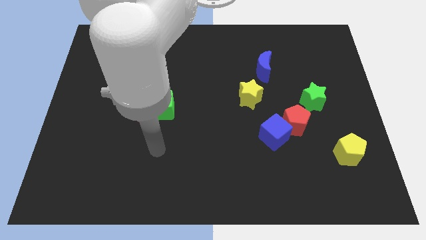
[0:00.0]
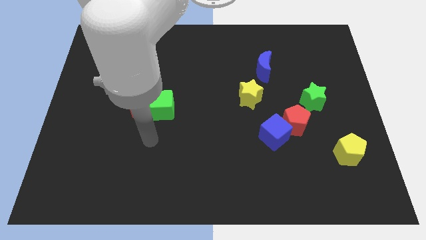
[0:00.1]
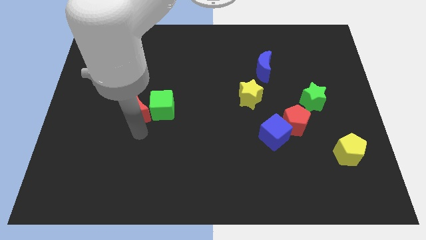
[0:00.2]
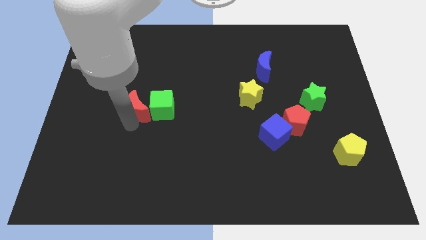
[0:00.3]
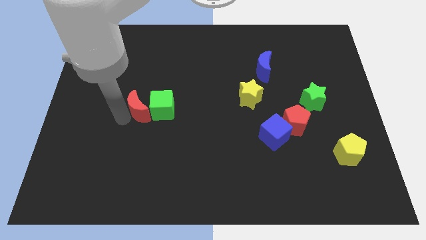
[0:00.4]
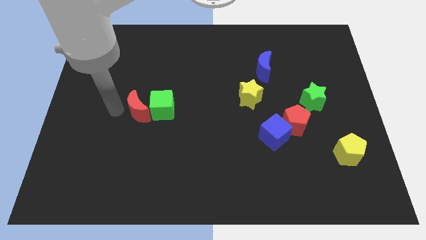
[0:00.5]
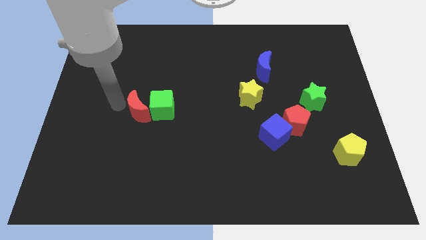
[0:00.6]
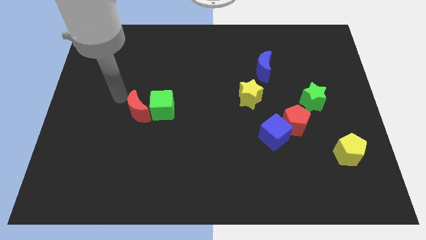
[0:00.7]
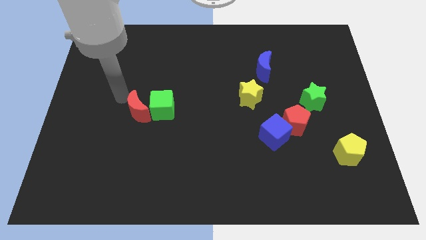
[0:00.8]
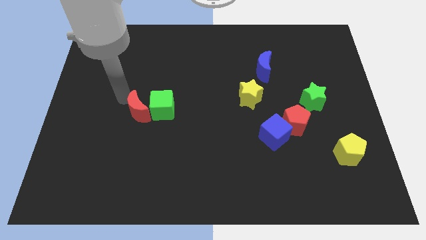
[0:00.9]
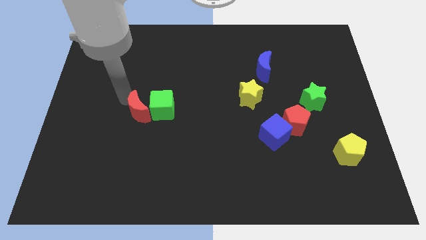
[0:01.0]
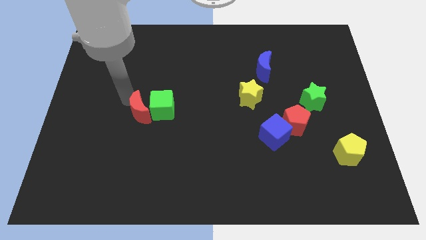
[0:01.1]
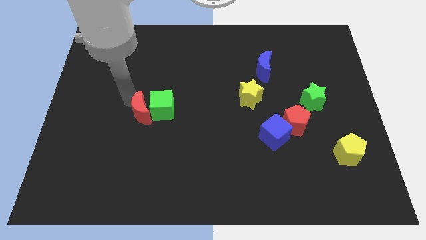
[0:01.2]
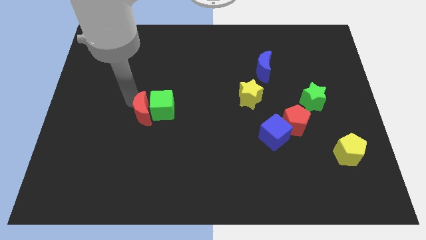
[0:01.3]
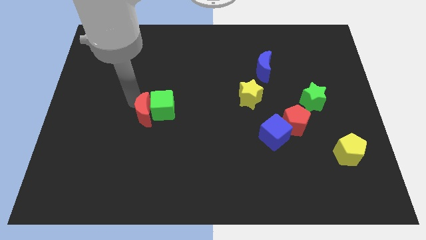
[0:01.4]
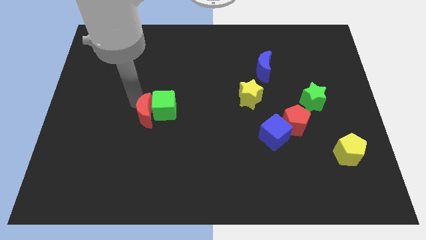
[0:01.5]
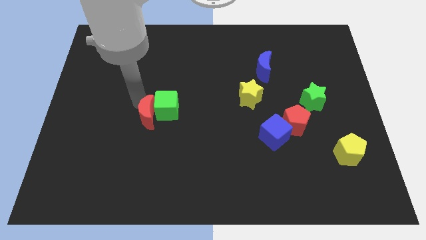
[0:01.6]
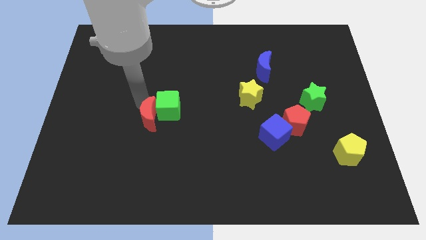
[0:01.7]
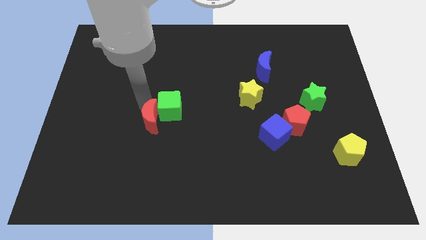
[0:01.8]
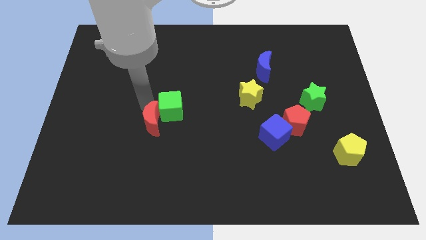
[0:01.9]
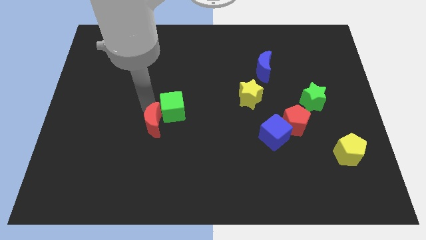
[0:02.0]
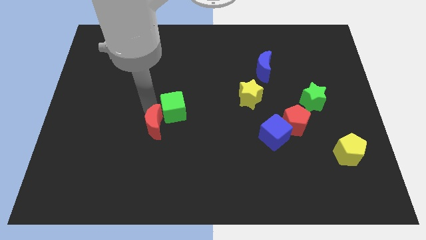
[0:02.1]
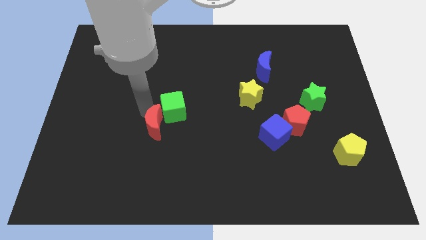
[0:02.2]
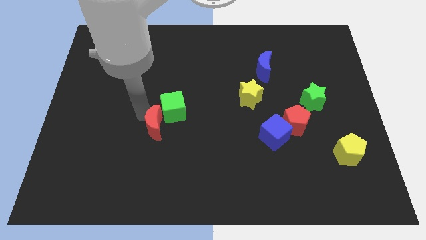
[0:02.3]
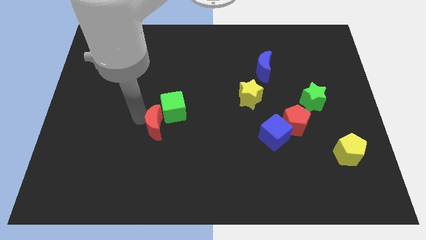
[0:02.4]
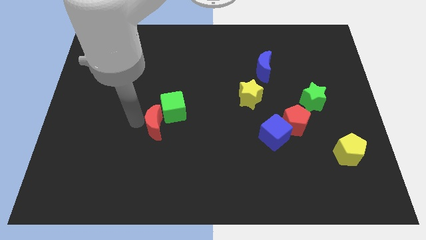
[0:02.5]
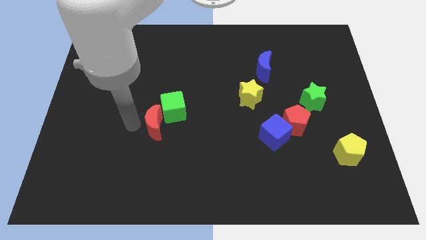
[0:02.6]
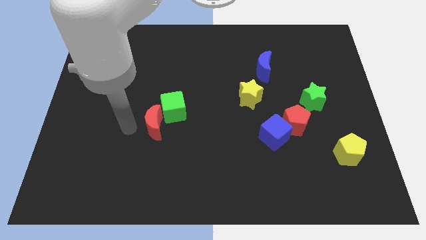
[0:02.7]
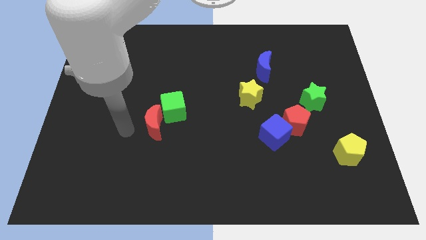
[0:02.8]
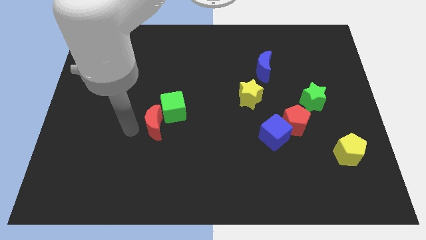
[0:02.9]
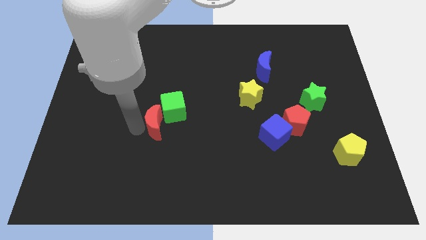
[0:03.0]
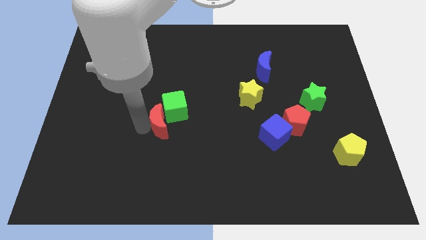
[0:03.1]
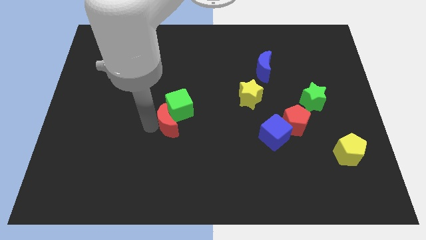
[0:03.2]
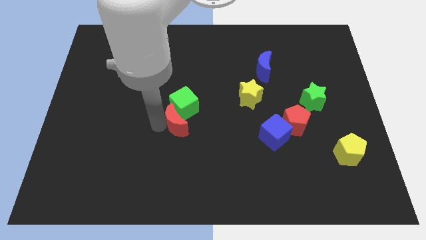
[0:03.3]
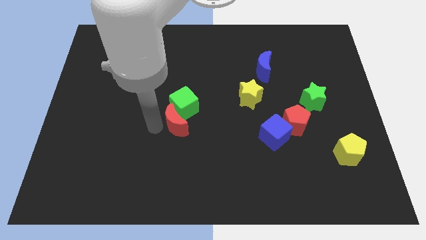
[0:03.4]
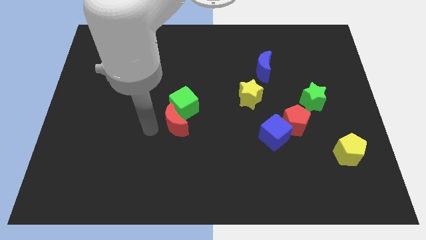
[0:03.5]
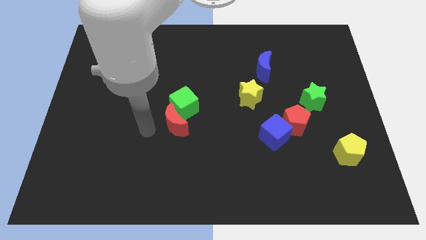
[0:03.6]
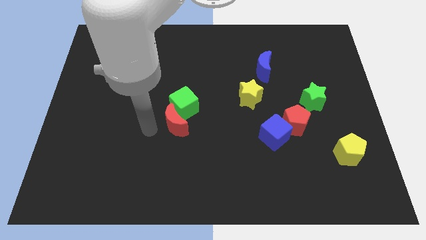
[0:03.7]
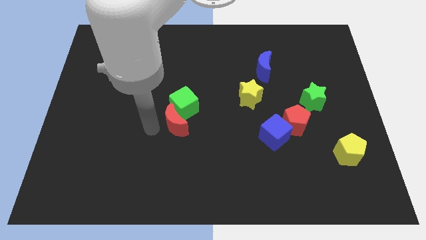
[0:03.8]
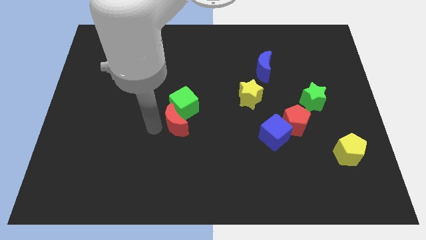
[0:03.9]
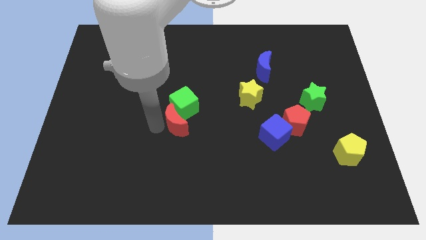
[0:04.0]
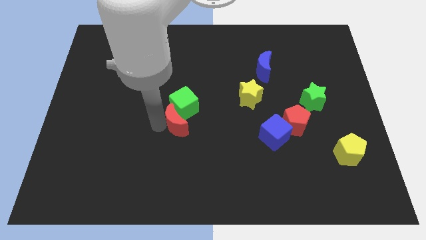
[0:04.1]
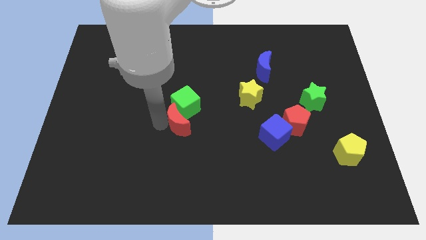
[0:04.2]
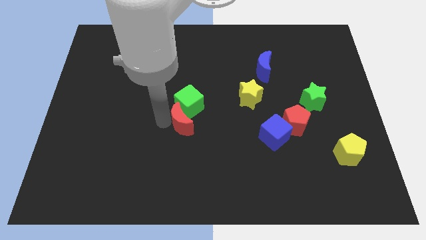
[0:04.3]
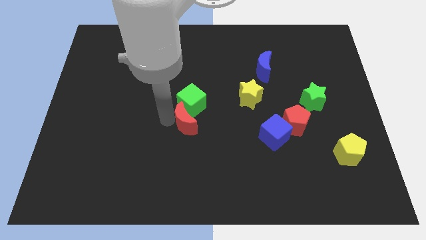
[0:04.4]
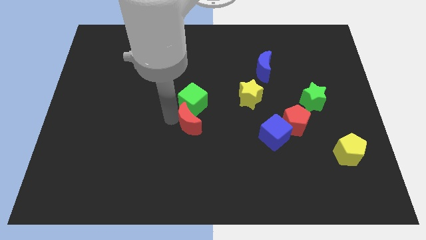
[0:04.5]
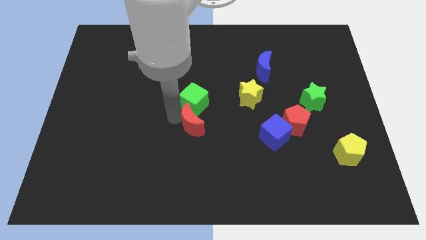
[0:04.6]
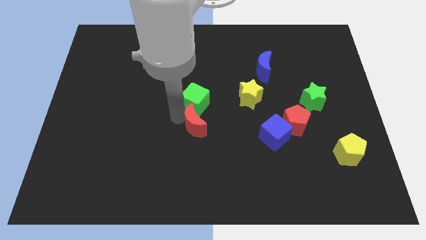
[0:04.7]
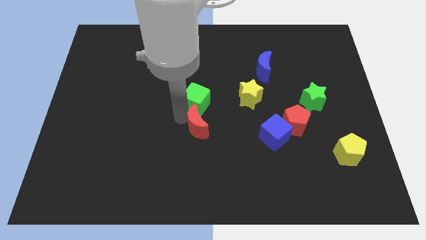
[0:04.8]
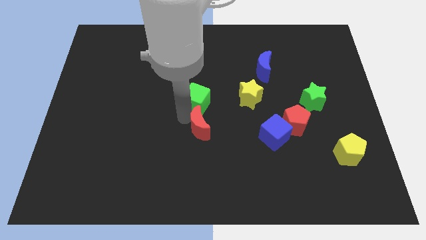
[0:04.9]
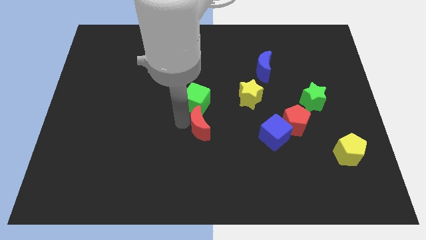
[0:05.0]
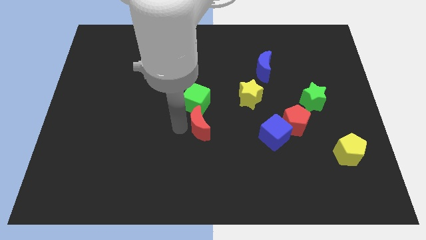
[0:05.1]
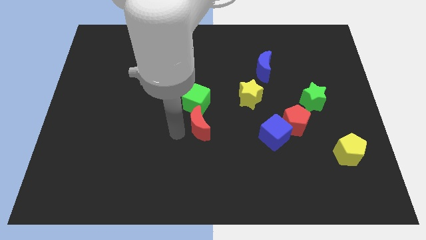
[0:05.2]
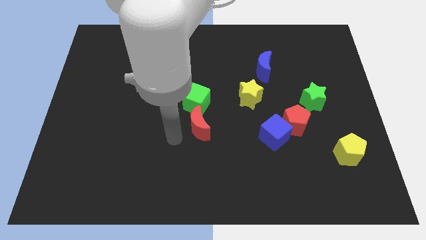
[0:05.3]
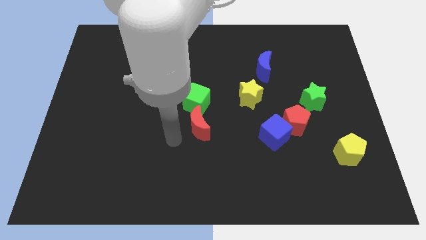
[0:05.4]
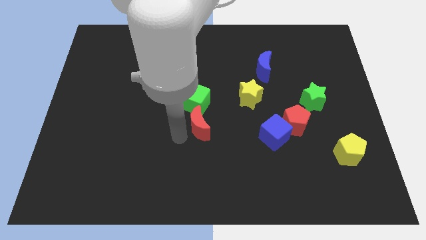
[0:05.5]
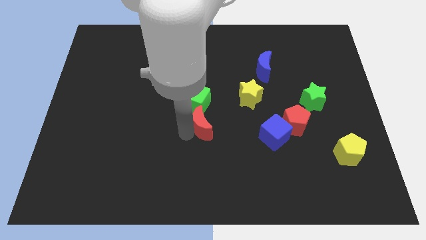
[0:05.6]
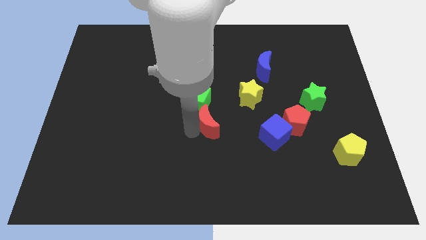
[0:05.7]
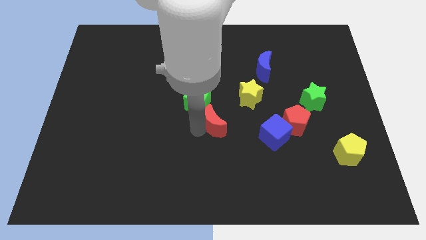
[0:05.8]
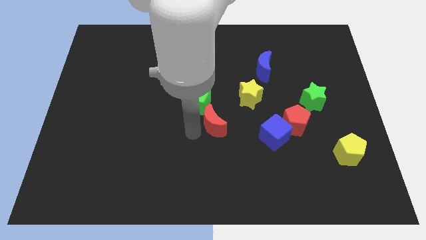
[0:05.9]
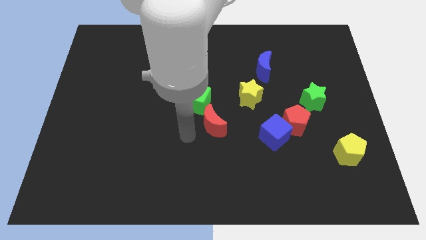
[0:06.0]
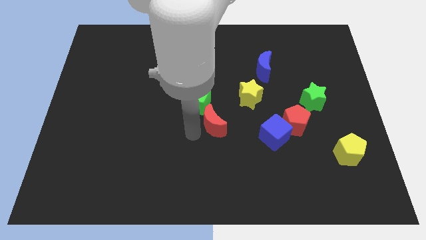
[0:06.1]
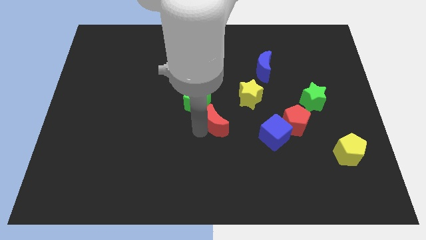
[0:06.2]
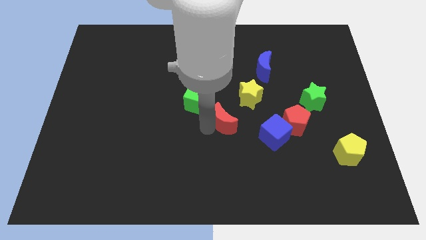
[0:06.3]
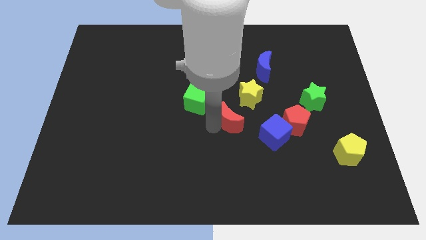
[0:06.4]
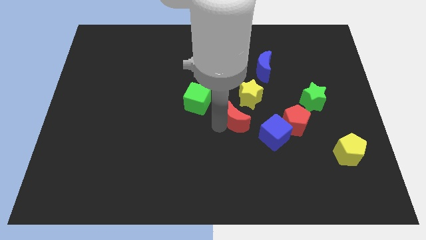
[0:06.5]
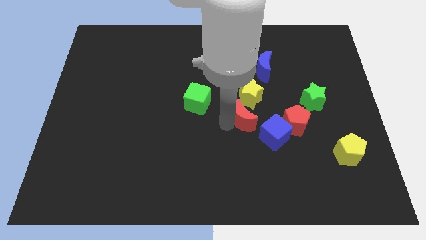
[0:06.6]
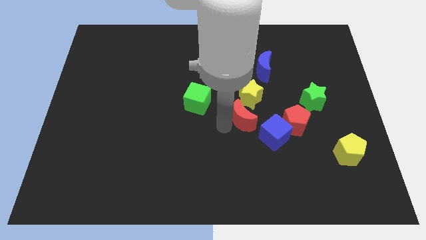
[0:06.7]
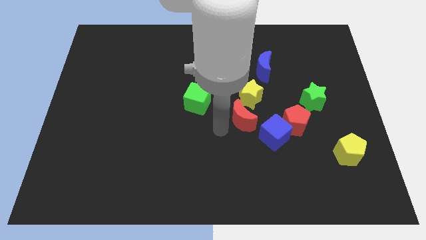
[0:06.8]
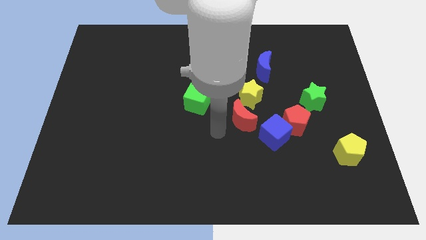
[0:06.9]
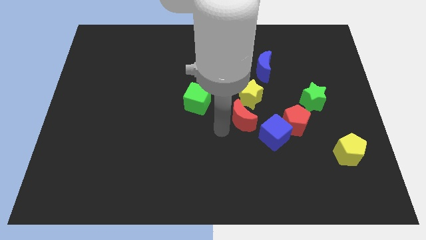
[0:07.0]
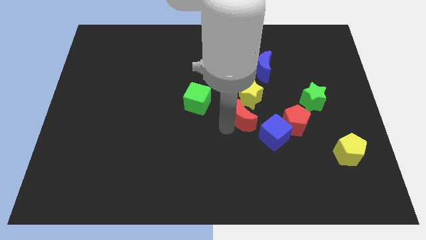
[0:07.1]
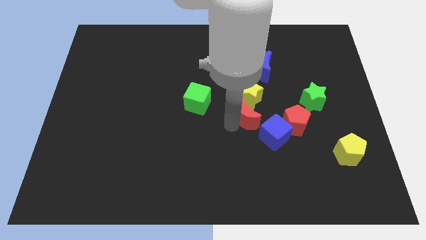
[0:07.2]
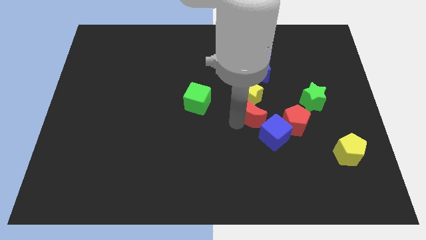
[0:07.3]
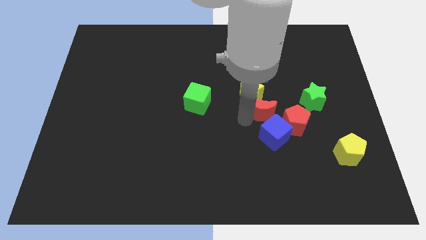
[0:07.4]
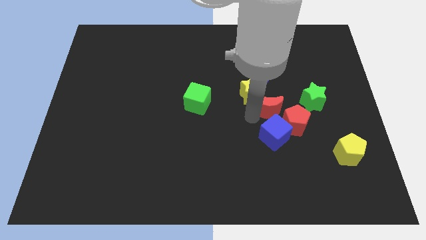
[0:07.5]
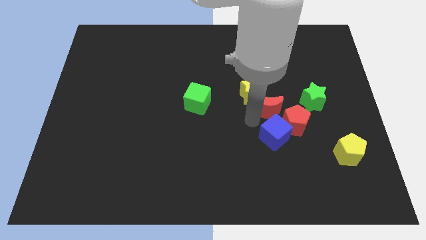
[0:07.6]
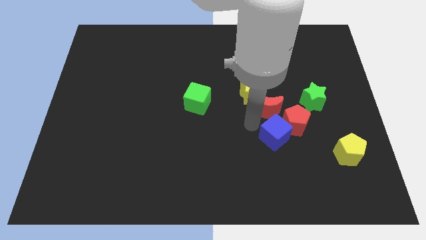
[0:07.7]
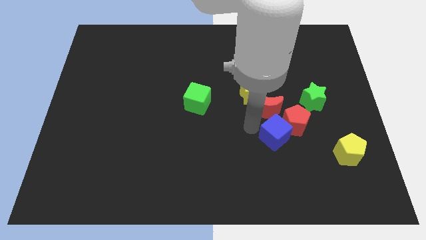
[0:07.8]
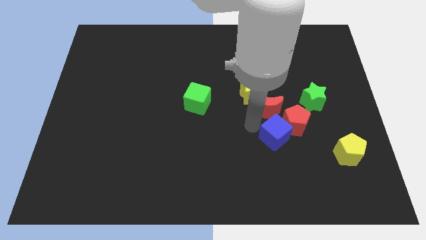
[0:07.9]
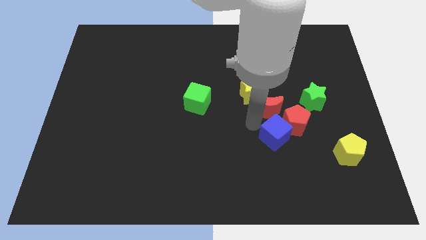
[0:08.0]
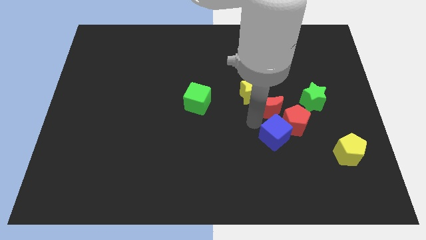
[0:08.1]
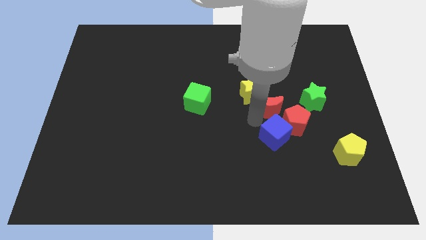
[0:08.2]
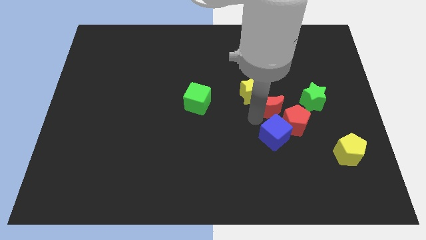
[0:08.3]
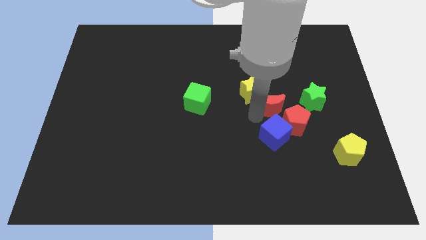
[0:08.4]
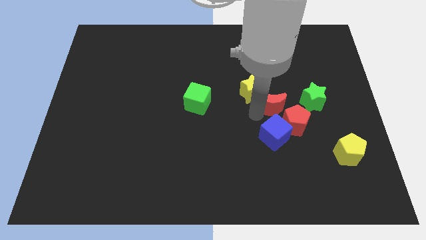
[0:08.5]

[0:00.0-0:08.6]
slide the red moon to the top of the red pentagon
